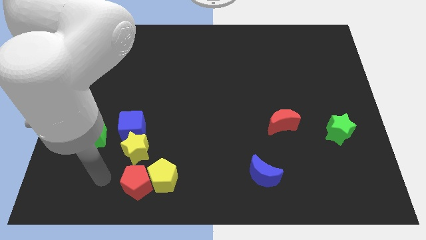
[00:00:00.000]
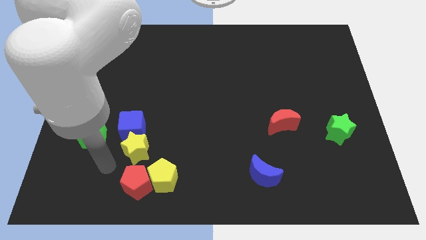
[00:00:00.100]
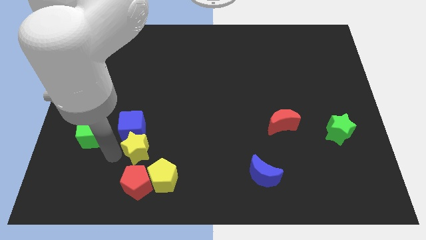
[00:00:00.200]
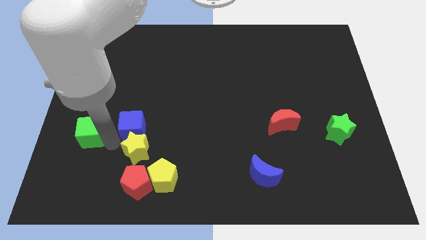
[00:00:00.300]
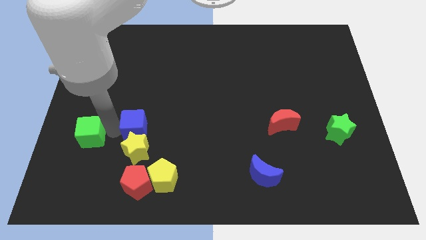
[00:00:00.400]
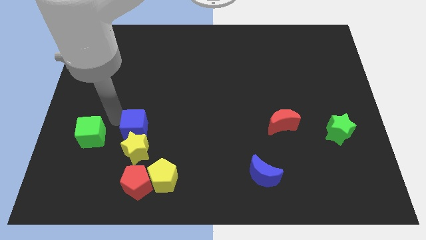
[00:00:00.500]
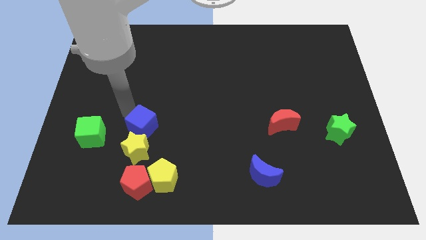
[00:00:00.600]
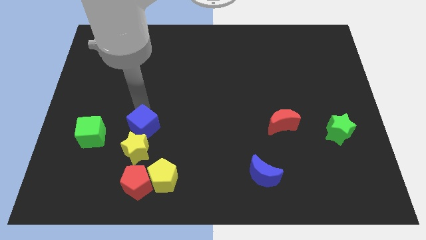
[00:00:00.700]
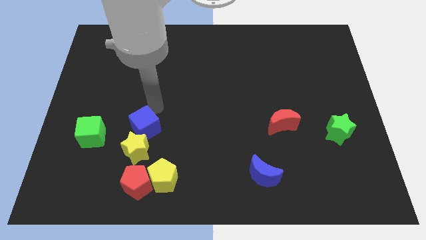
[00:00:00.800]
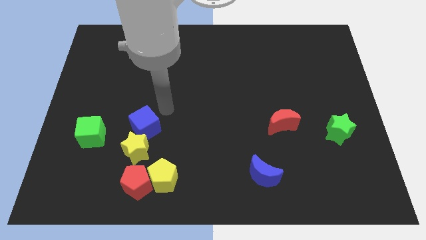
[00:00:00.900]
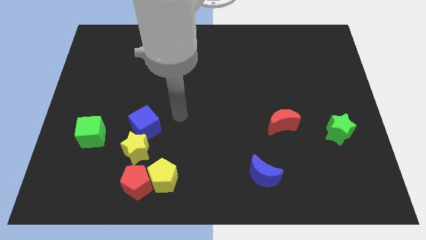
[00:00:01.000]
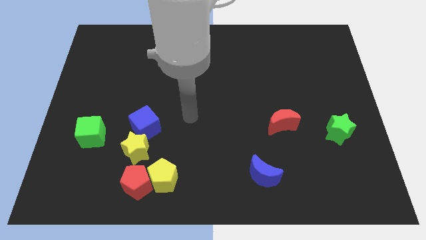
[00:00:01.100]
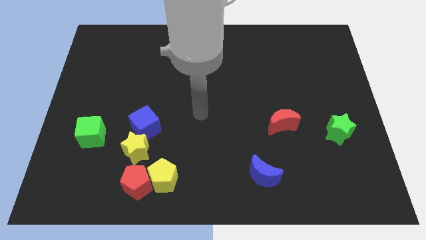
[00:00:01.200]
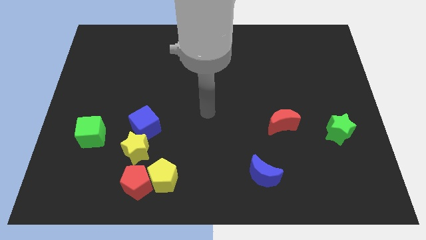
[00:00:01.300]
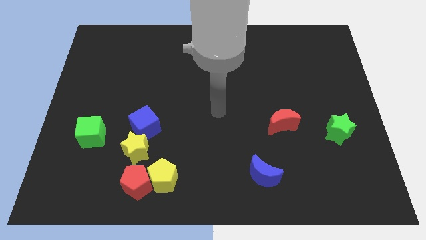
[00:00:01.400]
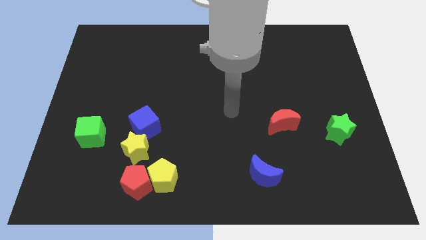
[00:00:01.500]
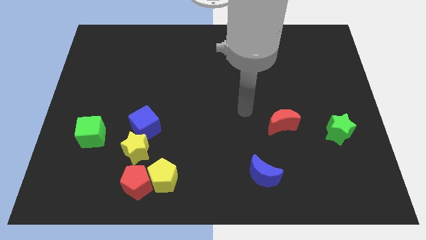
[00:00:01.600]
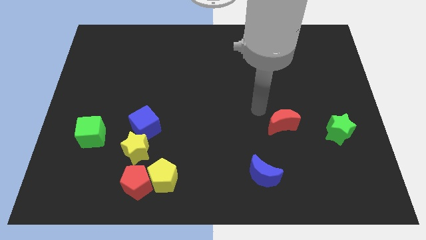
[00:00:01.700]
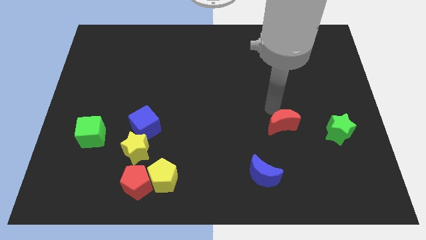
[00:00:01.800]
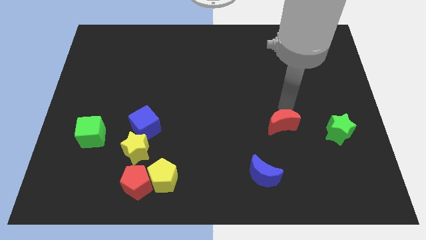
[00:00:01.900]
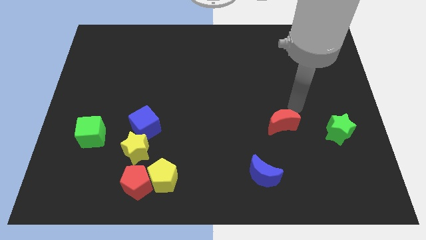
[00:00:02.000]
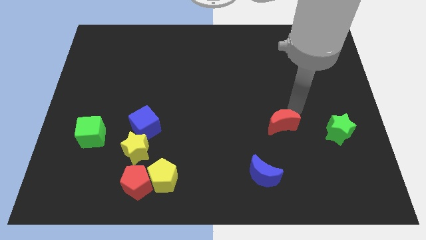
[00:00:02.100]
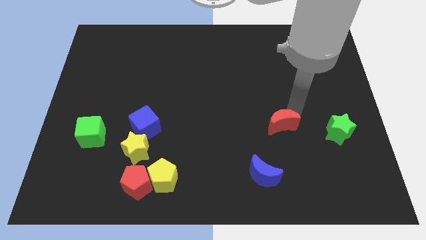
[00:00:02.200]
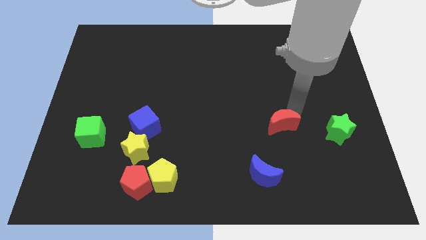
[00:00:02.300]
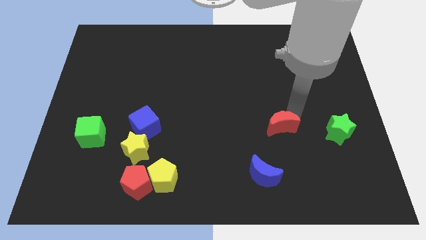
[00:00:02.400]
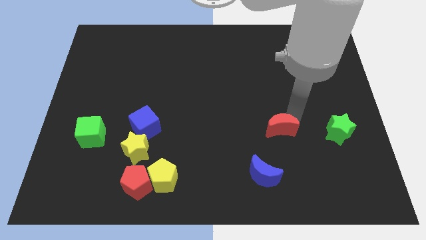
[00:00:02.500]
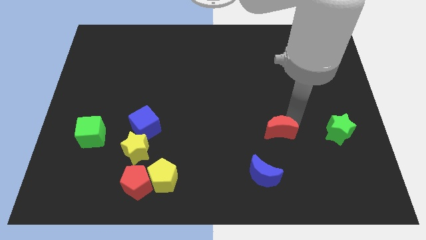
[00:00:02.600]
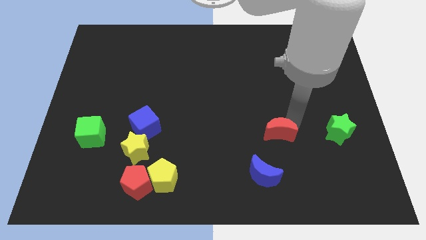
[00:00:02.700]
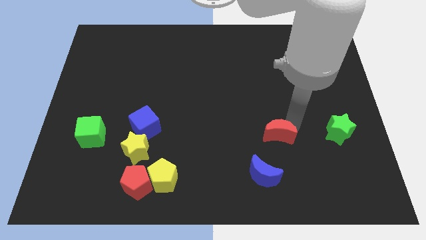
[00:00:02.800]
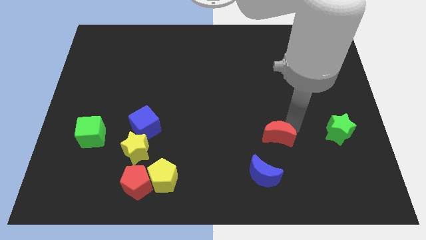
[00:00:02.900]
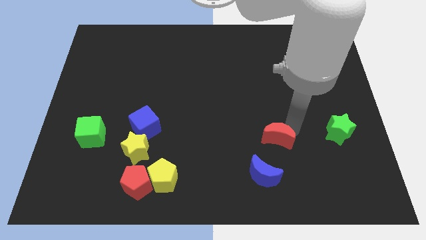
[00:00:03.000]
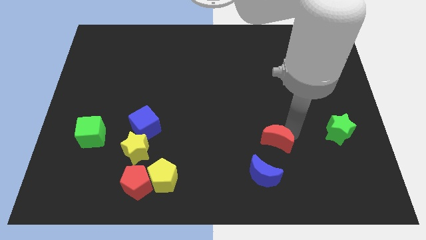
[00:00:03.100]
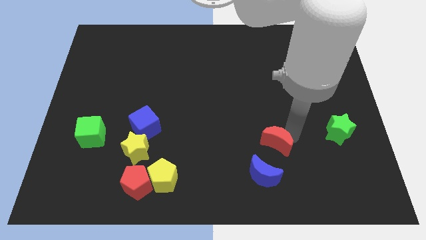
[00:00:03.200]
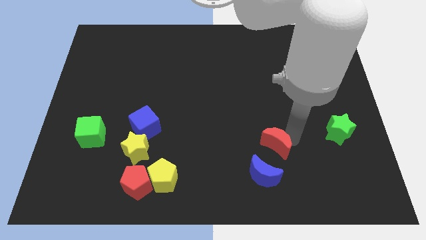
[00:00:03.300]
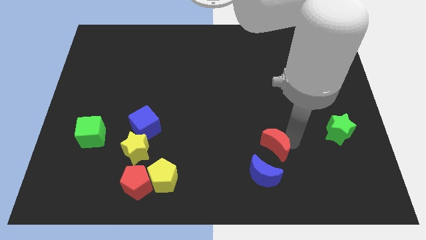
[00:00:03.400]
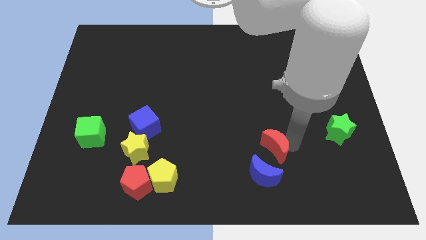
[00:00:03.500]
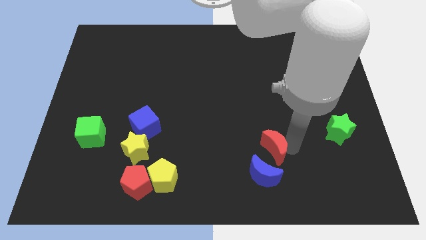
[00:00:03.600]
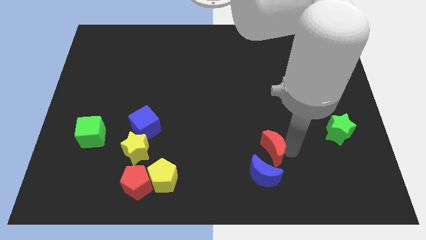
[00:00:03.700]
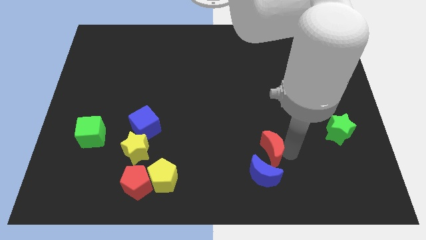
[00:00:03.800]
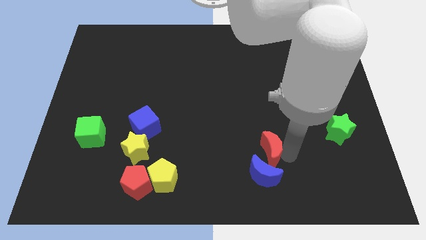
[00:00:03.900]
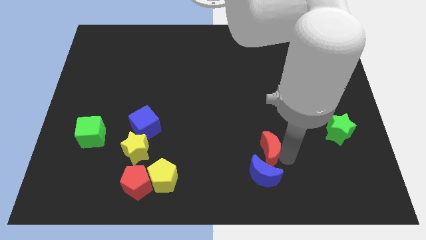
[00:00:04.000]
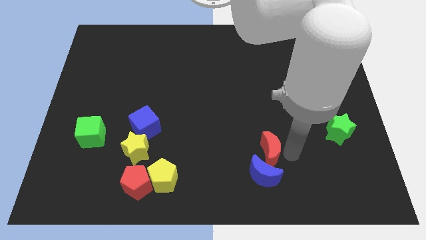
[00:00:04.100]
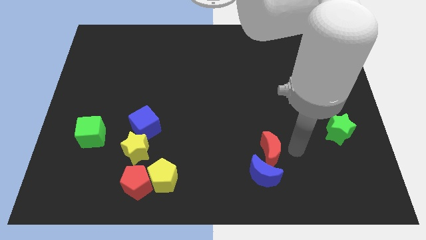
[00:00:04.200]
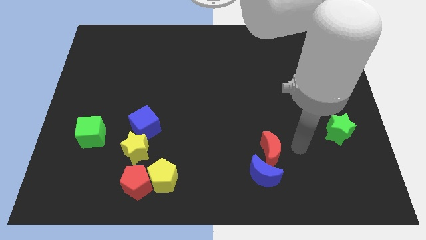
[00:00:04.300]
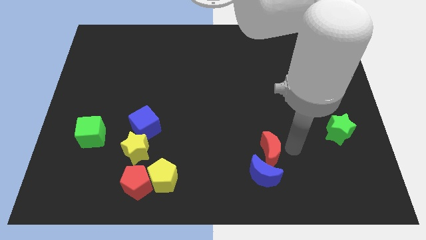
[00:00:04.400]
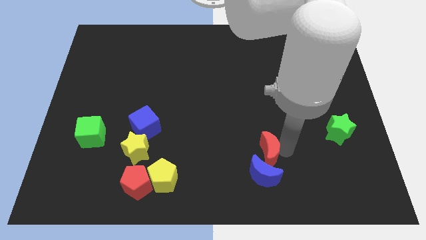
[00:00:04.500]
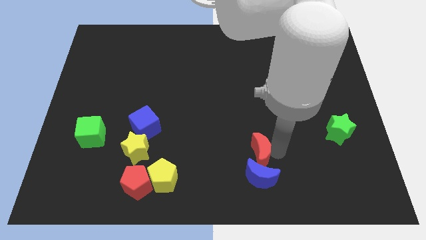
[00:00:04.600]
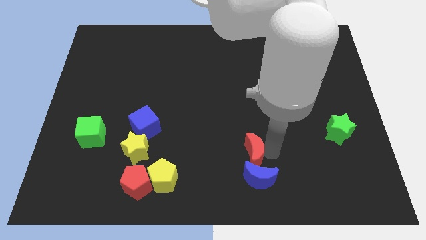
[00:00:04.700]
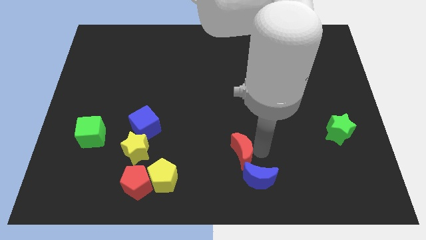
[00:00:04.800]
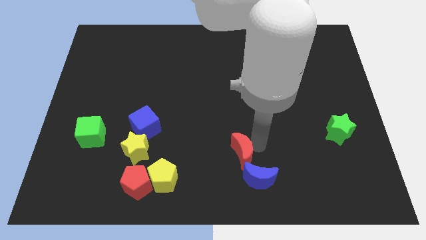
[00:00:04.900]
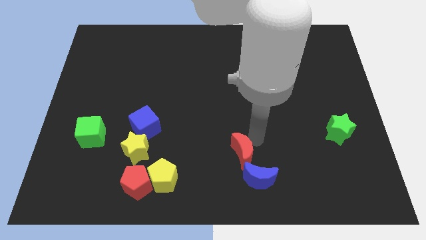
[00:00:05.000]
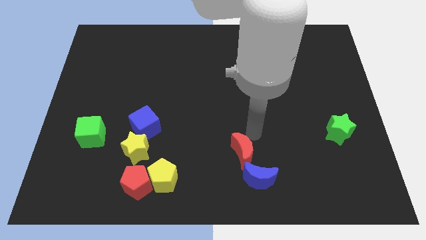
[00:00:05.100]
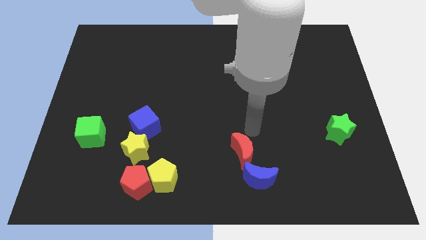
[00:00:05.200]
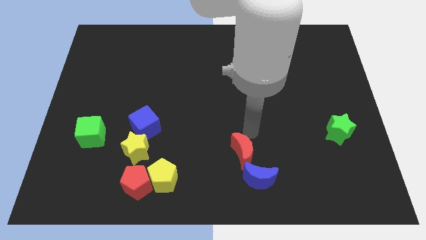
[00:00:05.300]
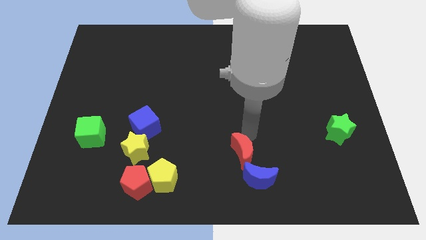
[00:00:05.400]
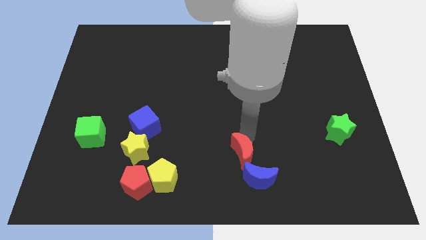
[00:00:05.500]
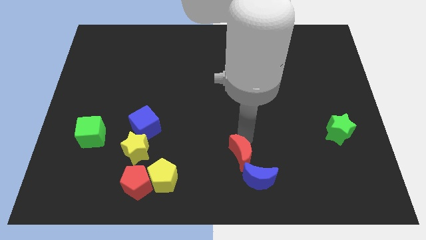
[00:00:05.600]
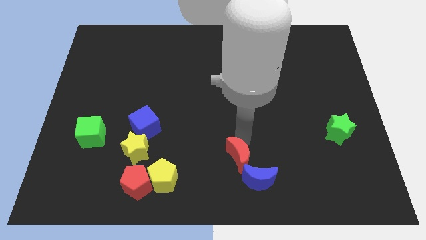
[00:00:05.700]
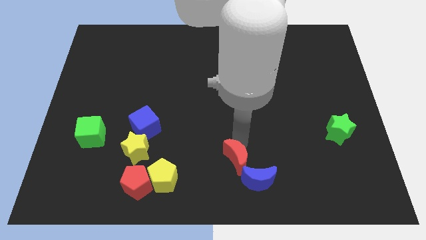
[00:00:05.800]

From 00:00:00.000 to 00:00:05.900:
move the red moon to the bottom
